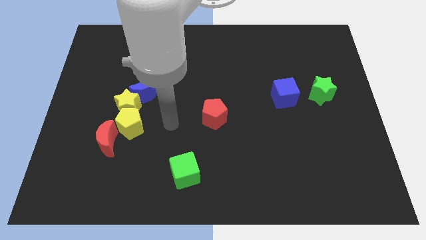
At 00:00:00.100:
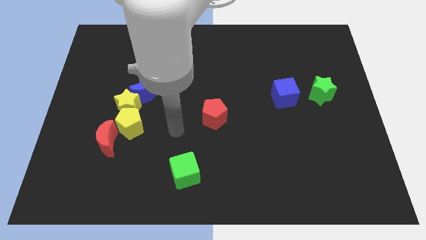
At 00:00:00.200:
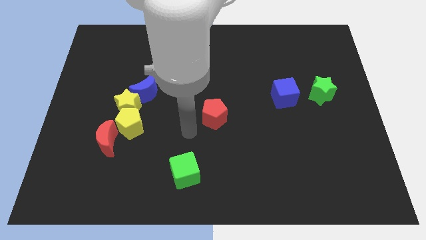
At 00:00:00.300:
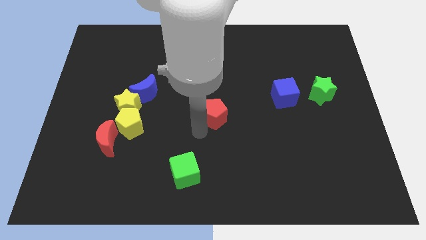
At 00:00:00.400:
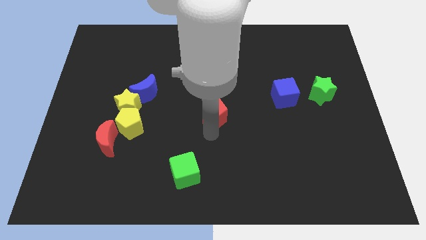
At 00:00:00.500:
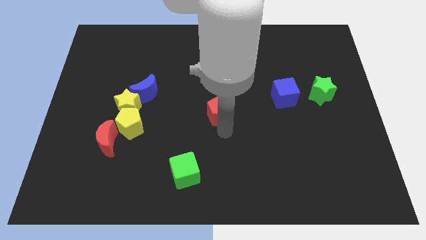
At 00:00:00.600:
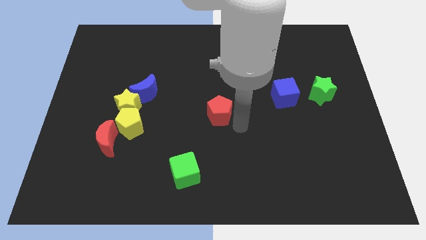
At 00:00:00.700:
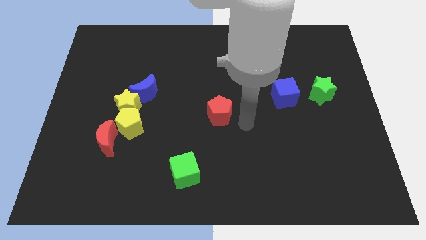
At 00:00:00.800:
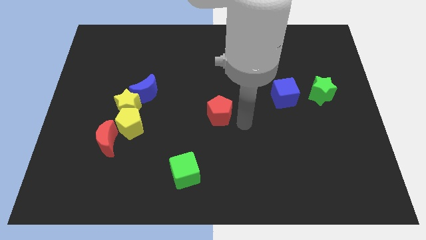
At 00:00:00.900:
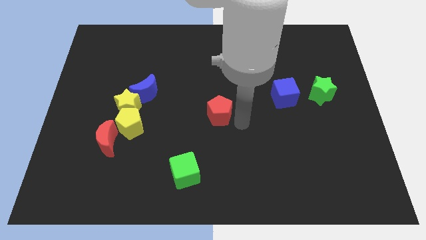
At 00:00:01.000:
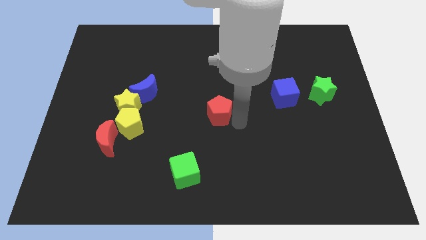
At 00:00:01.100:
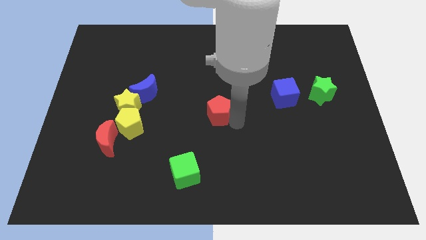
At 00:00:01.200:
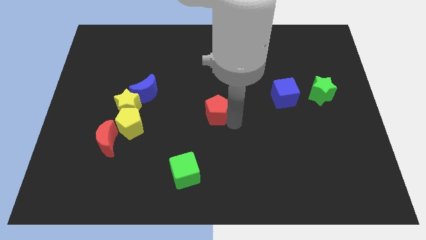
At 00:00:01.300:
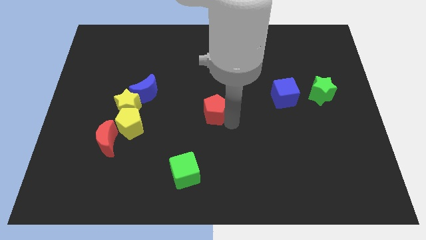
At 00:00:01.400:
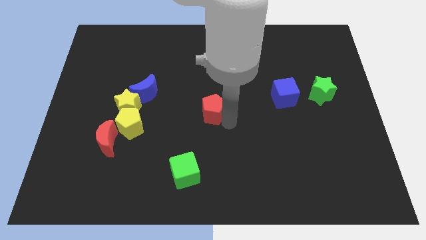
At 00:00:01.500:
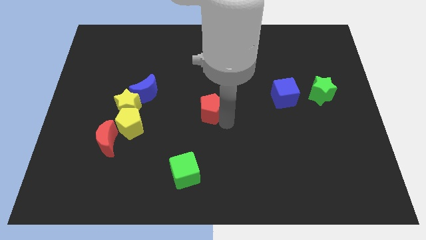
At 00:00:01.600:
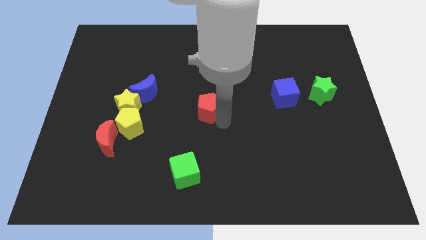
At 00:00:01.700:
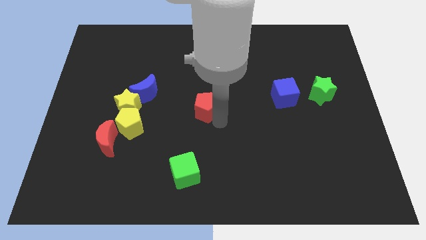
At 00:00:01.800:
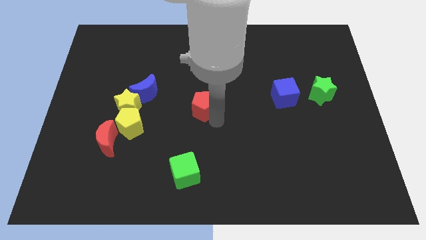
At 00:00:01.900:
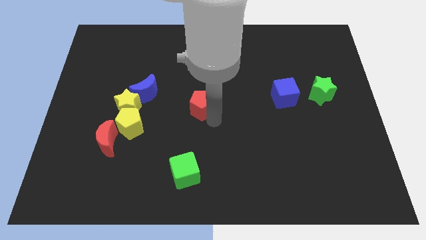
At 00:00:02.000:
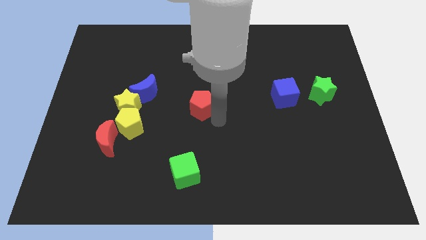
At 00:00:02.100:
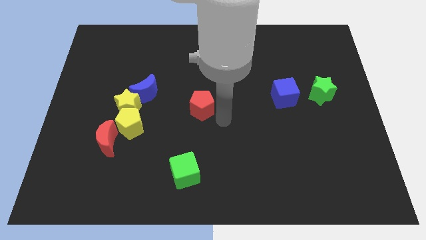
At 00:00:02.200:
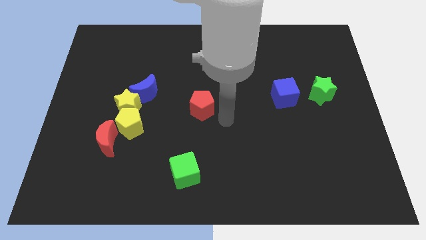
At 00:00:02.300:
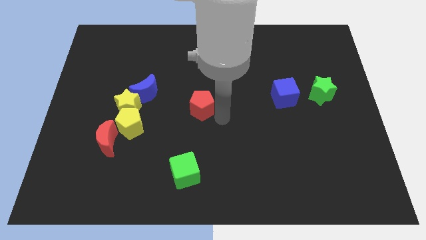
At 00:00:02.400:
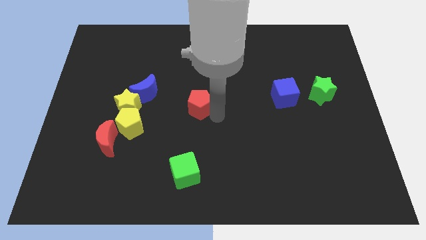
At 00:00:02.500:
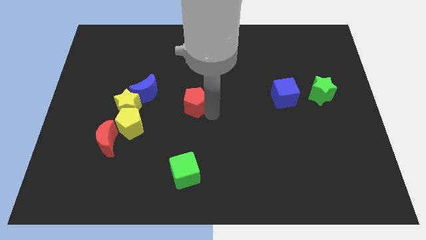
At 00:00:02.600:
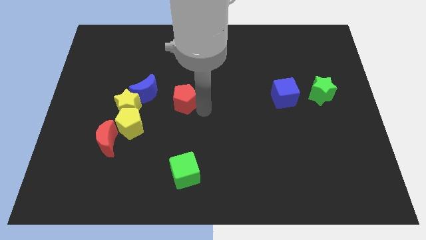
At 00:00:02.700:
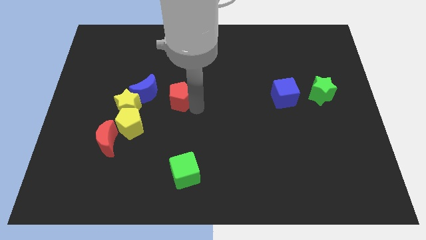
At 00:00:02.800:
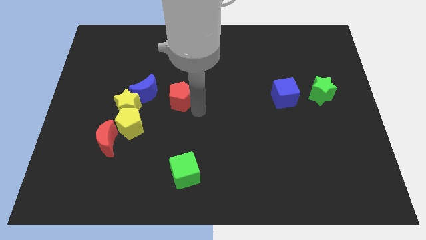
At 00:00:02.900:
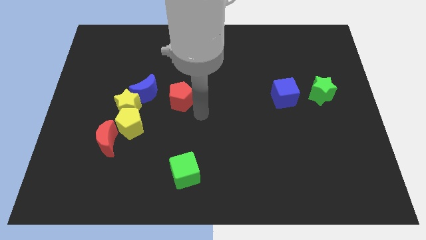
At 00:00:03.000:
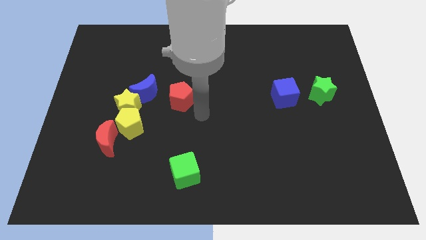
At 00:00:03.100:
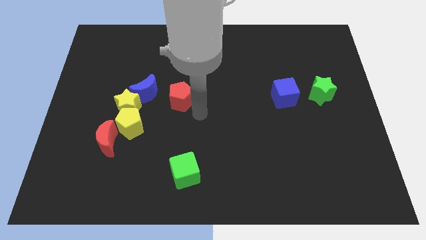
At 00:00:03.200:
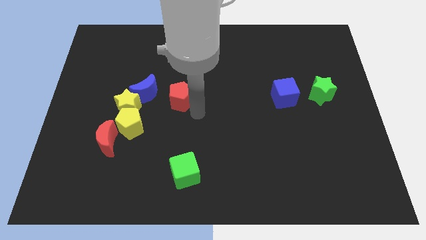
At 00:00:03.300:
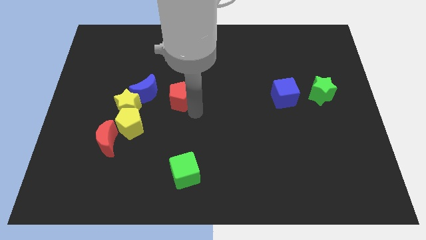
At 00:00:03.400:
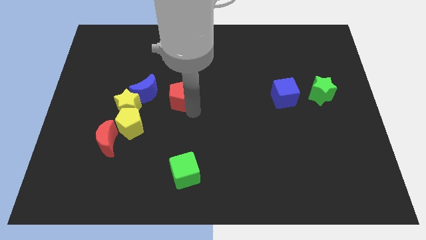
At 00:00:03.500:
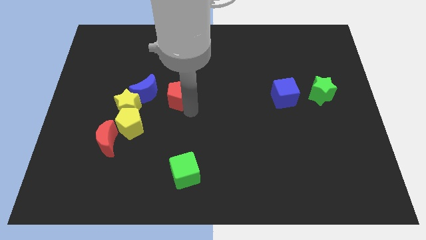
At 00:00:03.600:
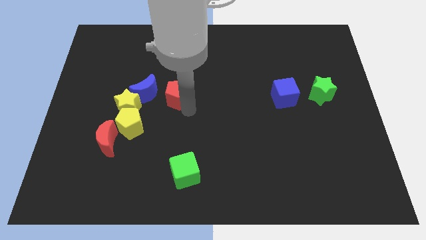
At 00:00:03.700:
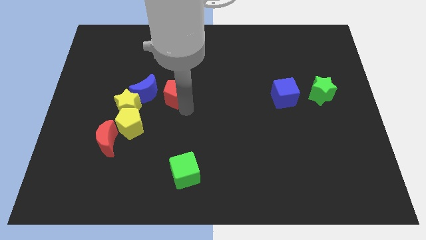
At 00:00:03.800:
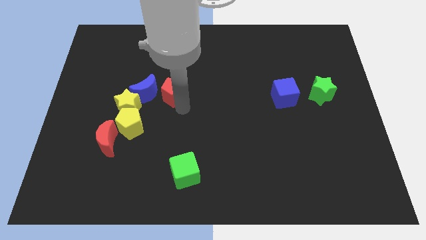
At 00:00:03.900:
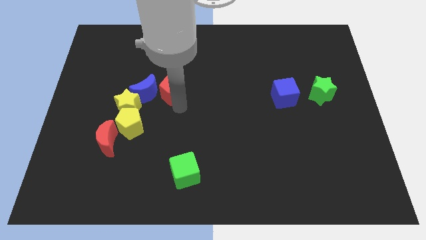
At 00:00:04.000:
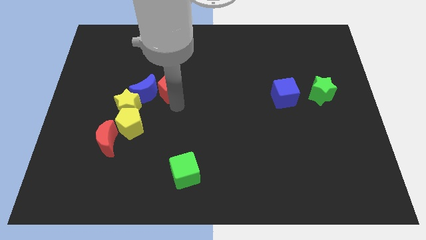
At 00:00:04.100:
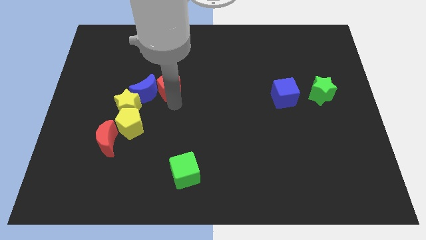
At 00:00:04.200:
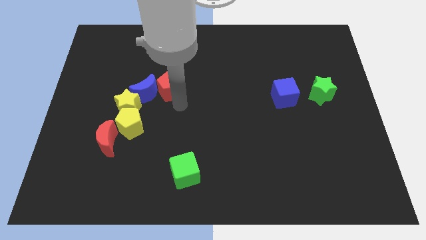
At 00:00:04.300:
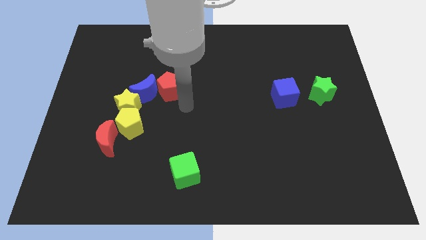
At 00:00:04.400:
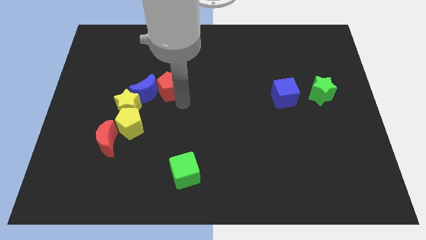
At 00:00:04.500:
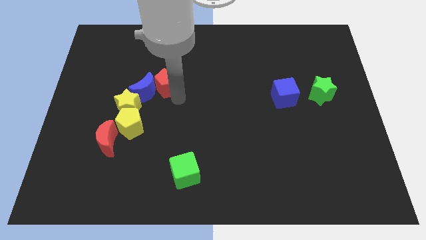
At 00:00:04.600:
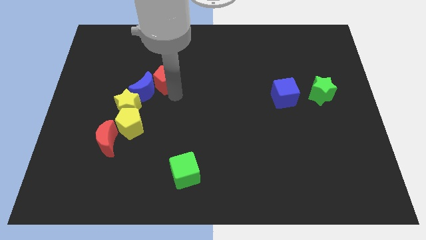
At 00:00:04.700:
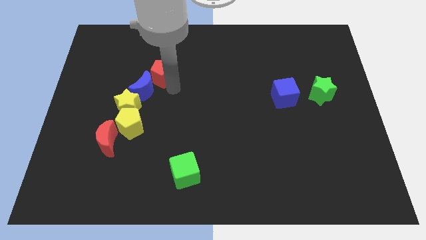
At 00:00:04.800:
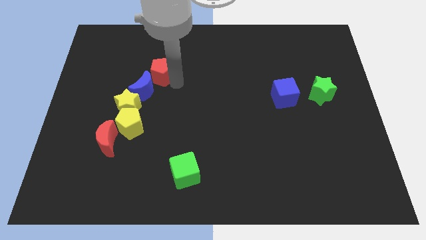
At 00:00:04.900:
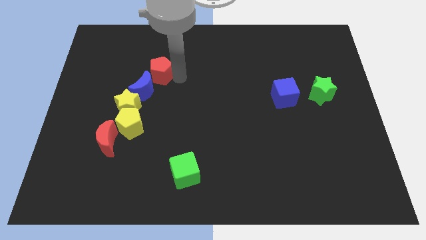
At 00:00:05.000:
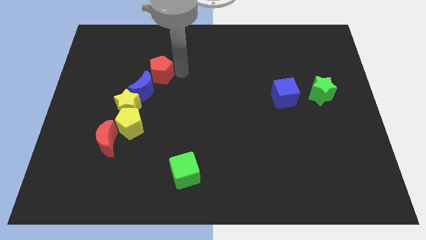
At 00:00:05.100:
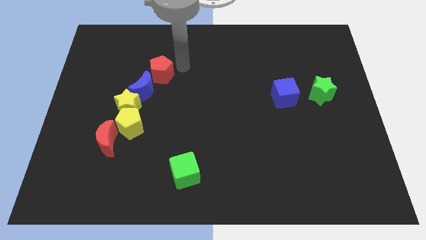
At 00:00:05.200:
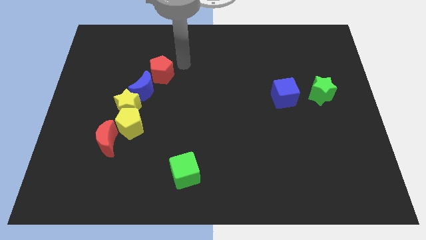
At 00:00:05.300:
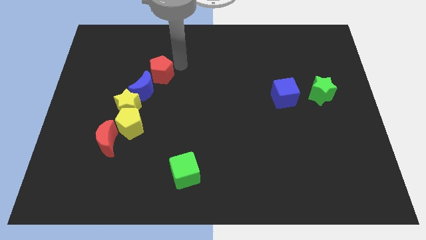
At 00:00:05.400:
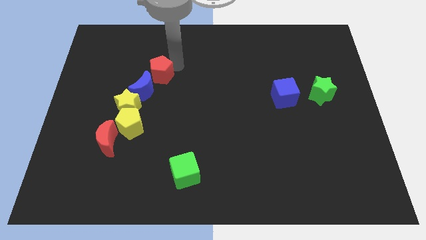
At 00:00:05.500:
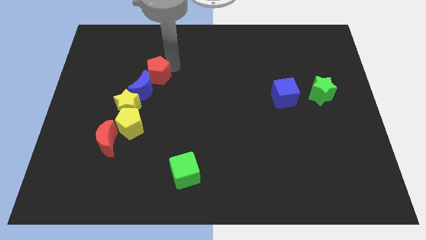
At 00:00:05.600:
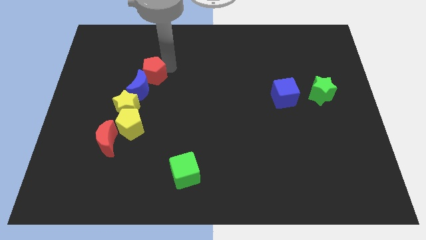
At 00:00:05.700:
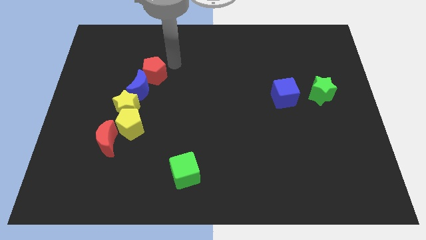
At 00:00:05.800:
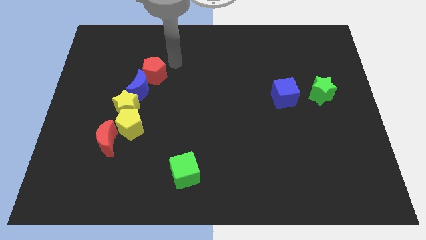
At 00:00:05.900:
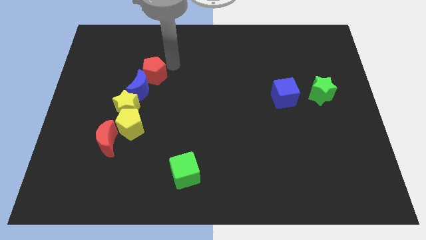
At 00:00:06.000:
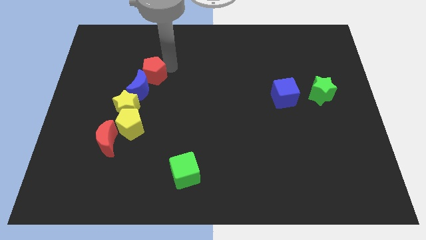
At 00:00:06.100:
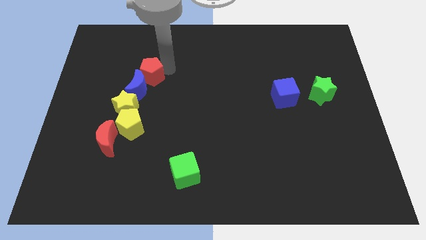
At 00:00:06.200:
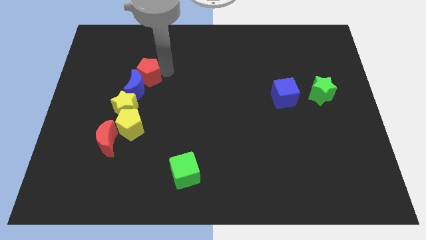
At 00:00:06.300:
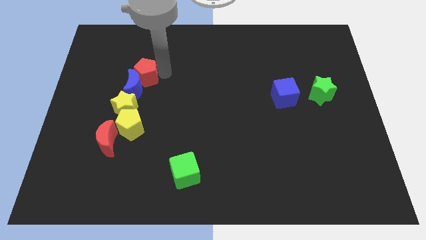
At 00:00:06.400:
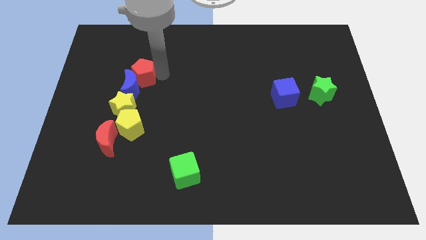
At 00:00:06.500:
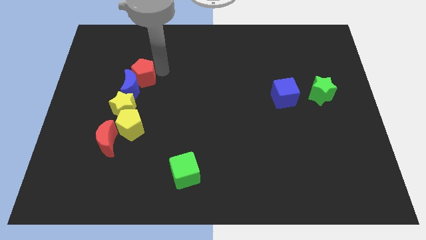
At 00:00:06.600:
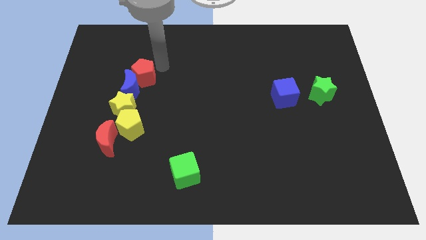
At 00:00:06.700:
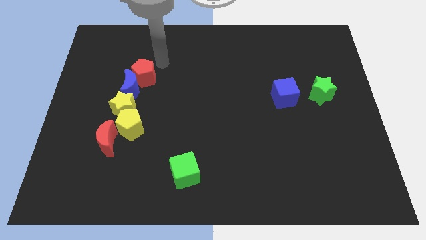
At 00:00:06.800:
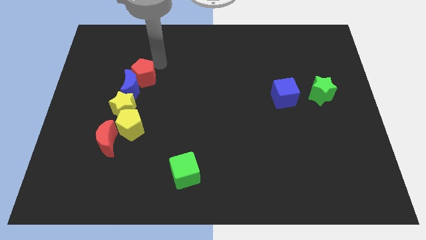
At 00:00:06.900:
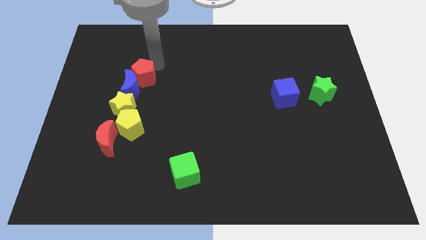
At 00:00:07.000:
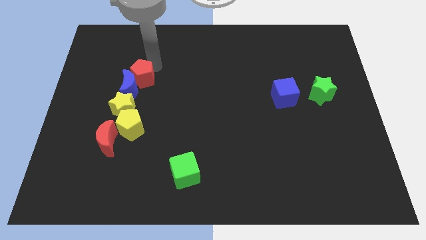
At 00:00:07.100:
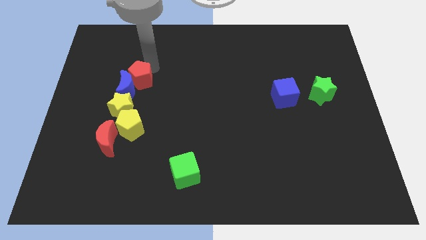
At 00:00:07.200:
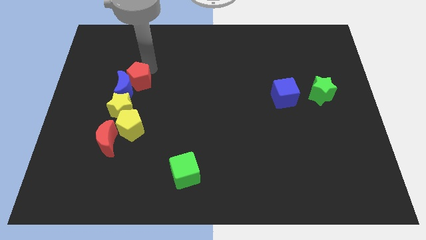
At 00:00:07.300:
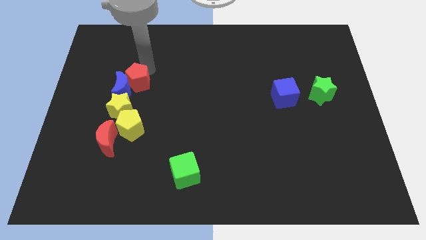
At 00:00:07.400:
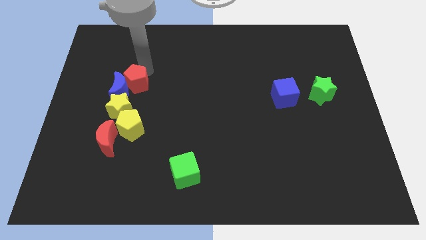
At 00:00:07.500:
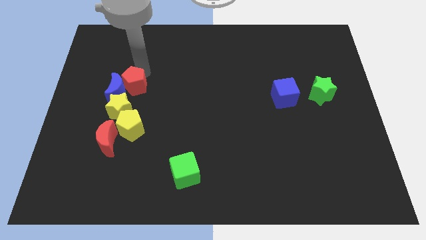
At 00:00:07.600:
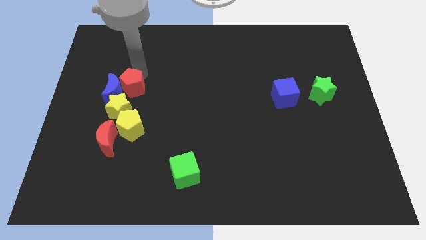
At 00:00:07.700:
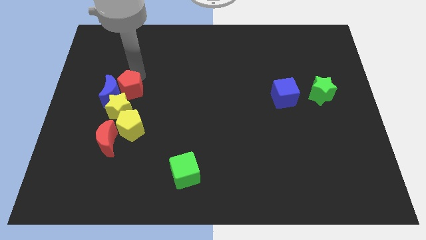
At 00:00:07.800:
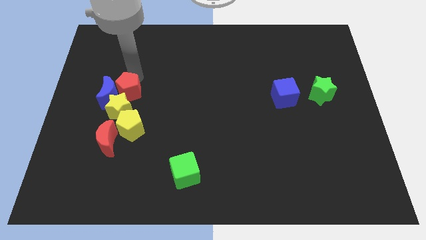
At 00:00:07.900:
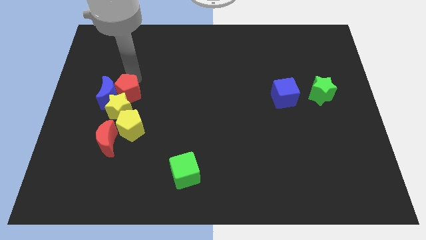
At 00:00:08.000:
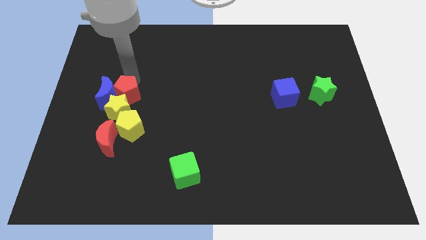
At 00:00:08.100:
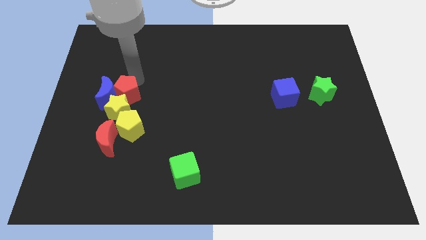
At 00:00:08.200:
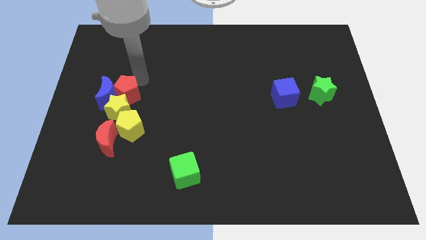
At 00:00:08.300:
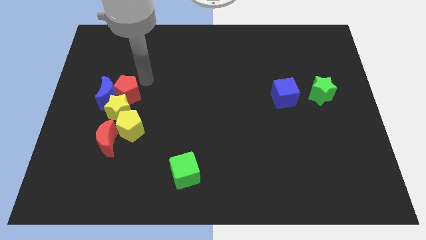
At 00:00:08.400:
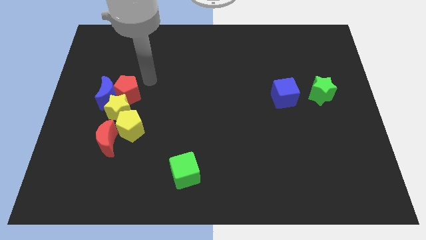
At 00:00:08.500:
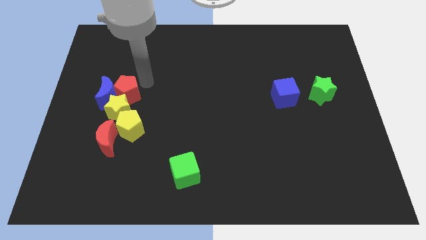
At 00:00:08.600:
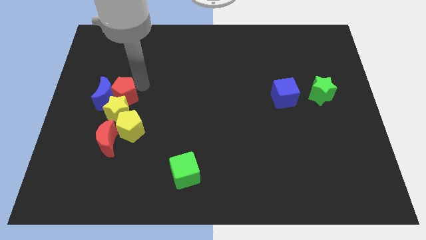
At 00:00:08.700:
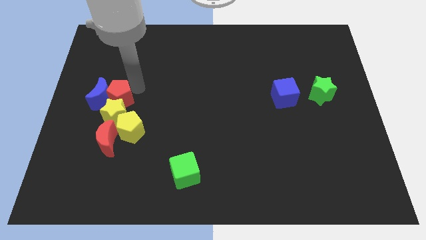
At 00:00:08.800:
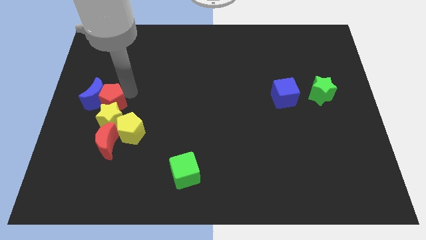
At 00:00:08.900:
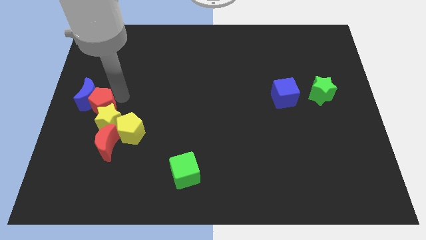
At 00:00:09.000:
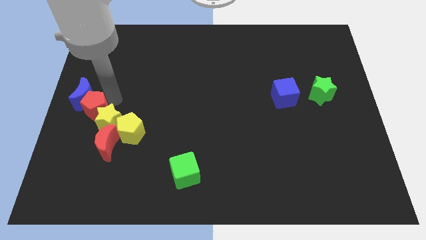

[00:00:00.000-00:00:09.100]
put the red pentagon to the top left of the red moon
